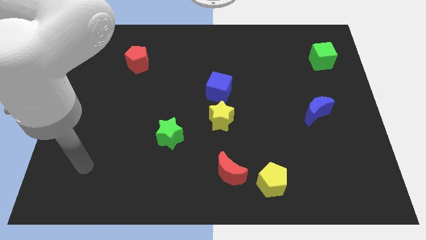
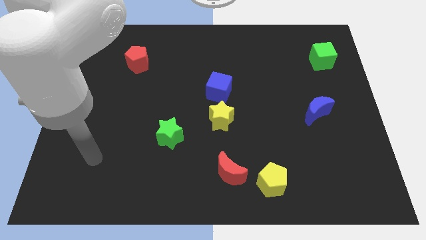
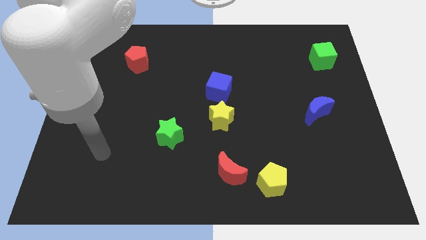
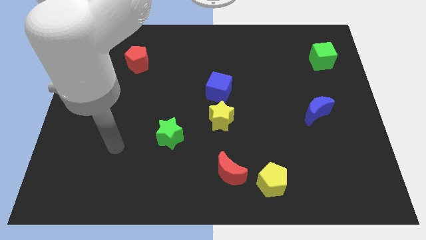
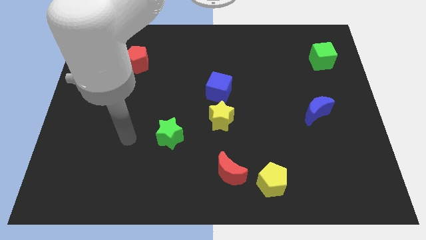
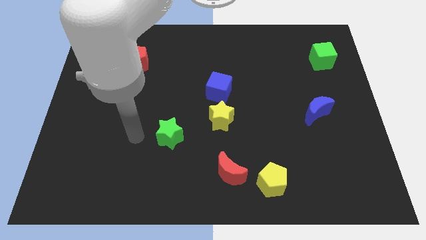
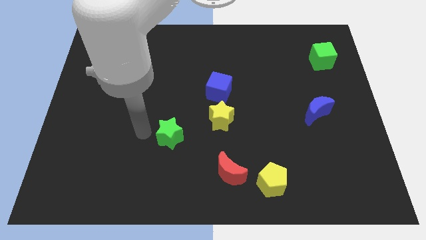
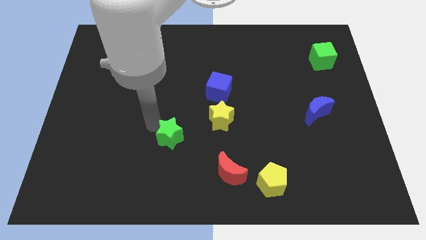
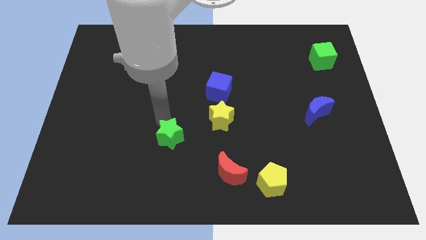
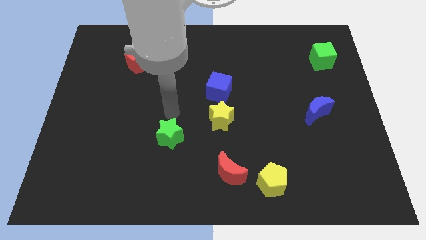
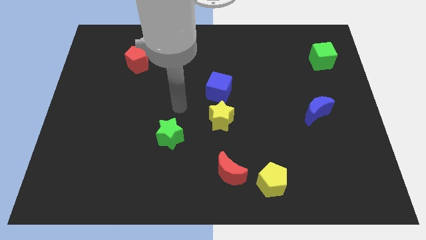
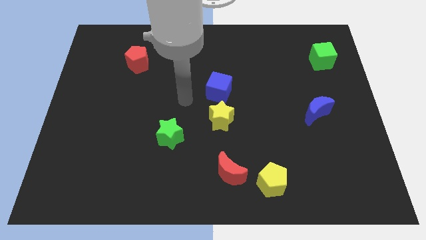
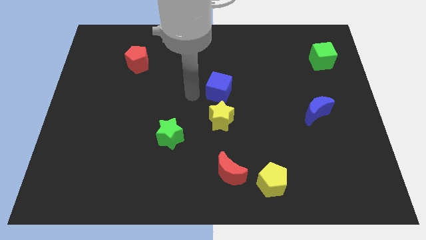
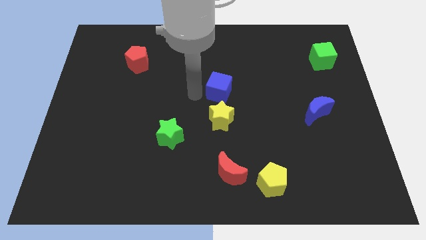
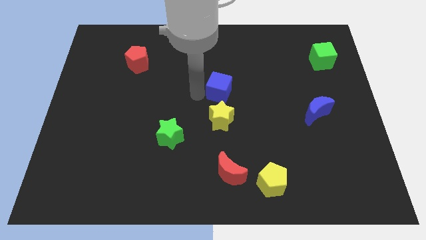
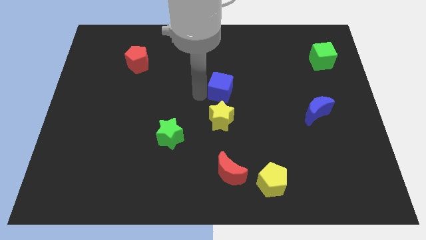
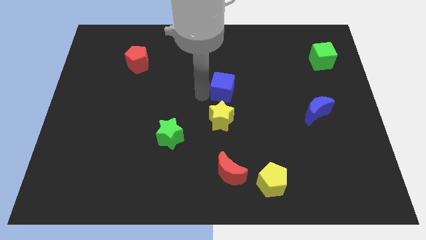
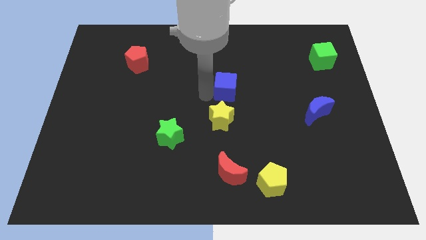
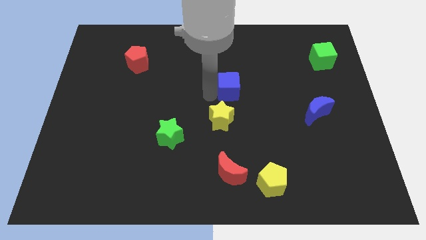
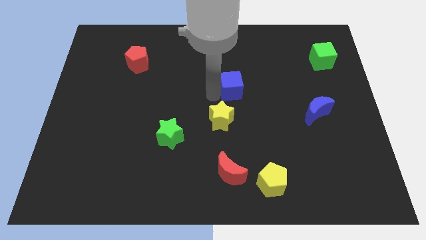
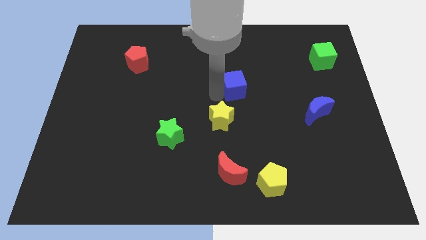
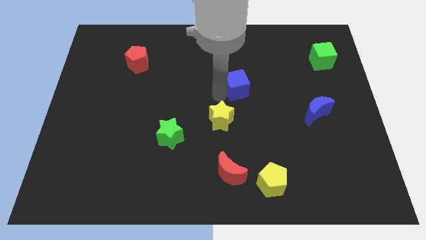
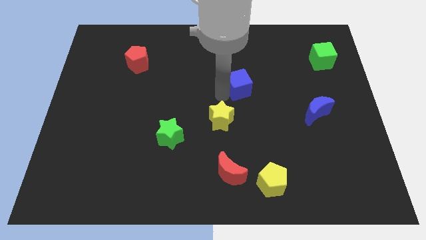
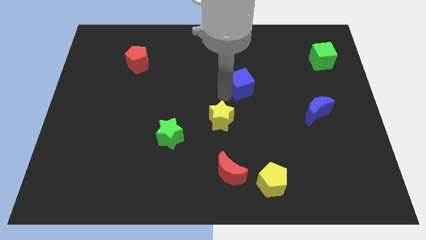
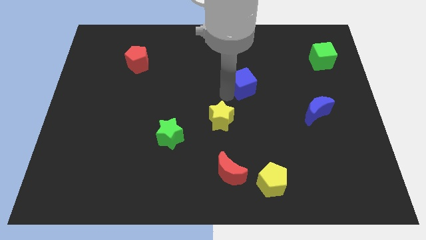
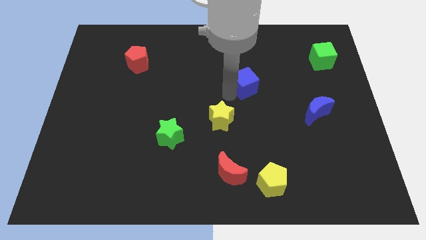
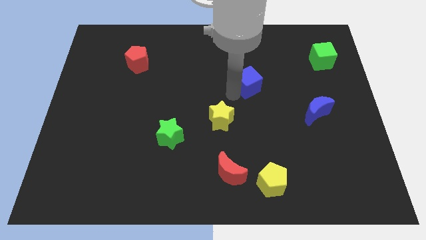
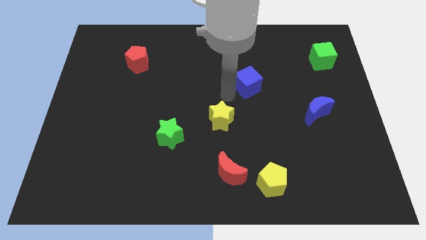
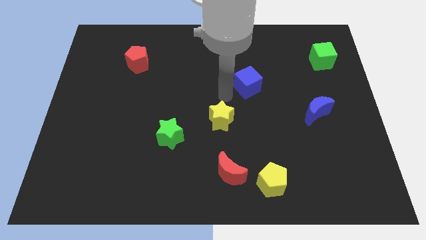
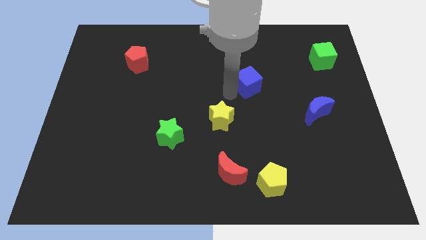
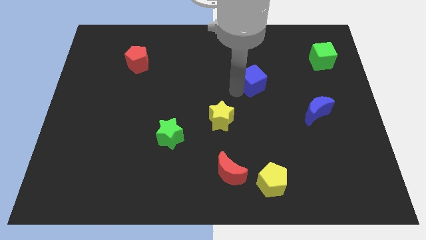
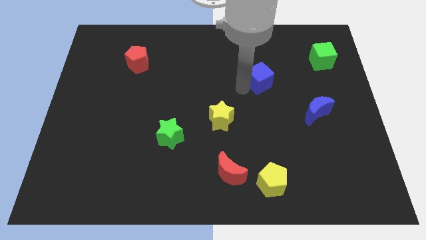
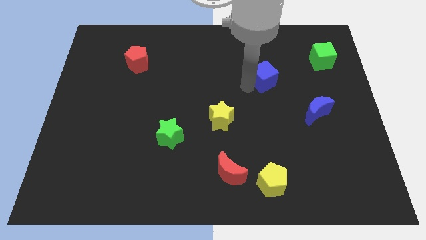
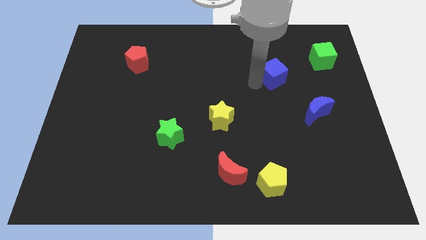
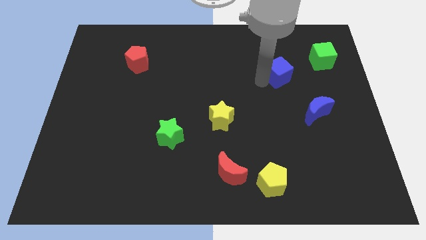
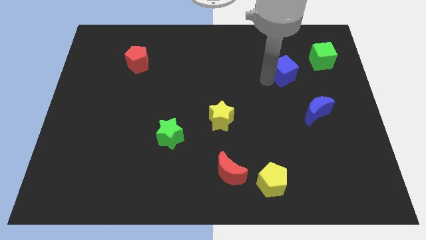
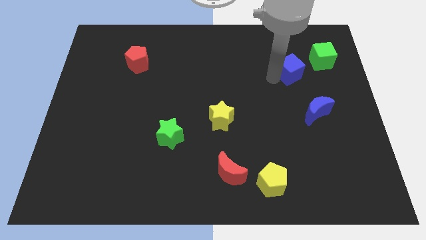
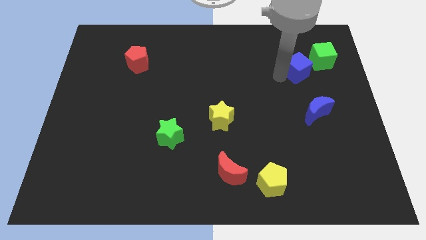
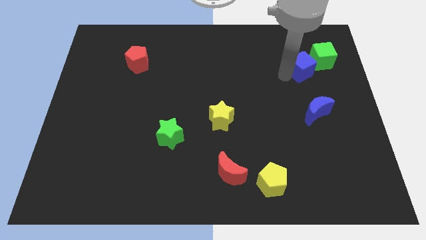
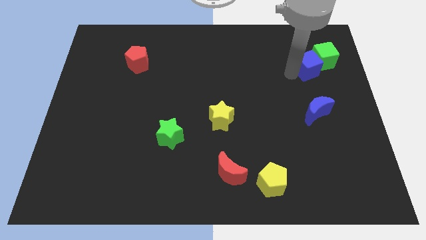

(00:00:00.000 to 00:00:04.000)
put the blue cube next to the green cube

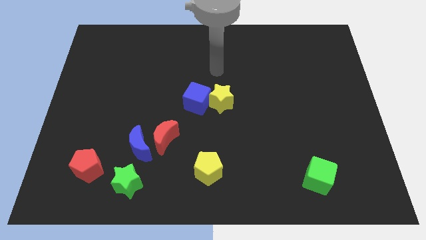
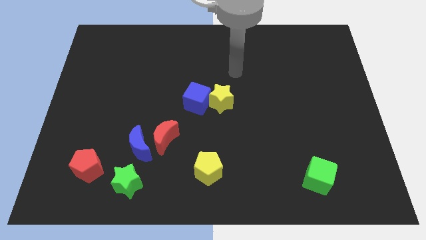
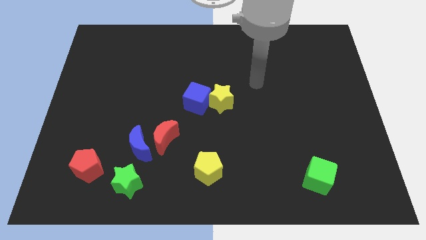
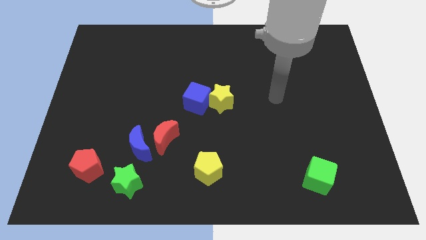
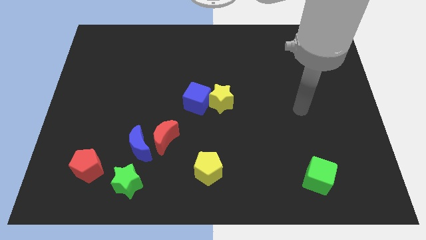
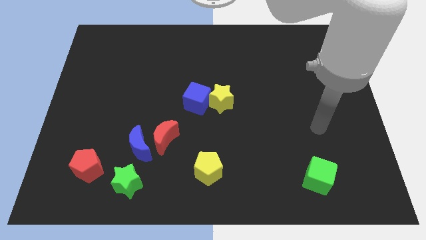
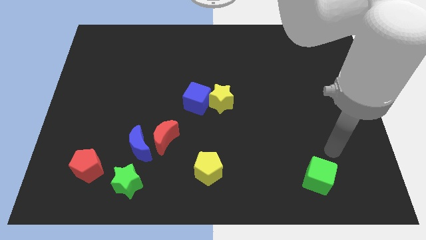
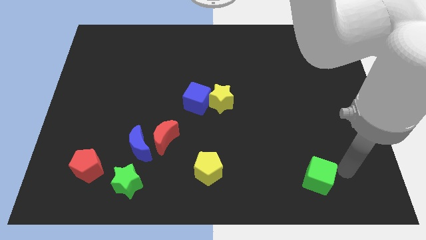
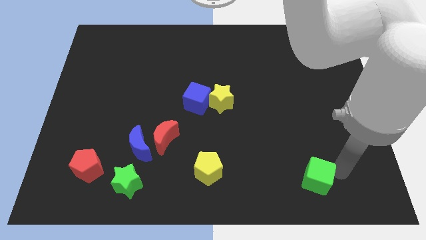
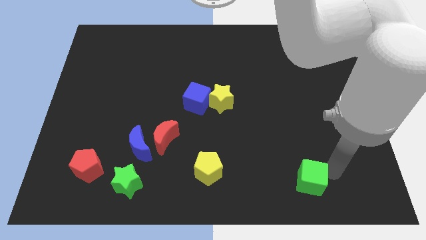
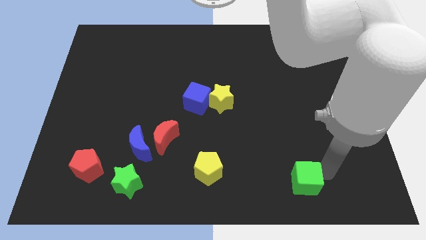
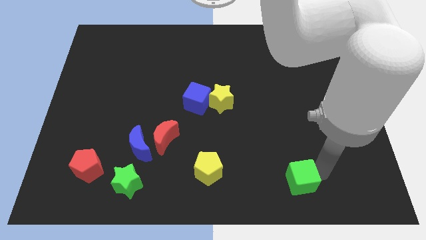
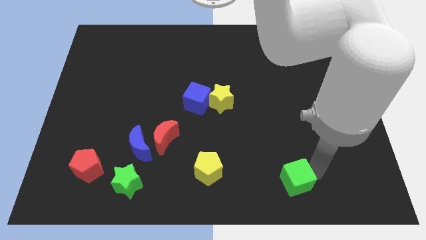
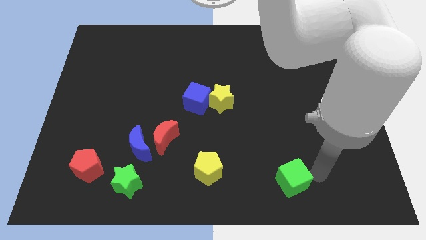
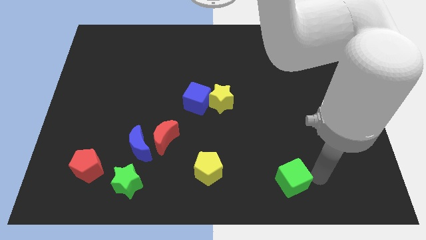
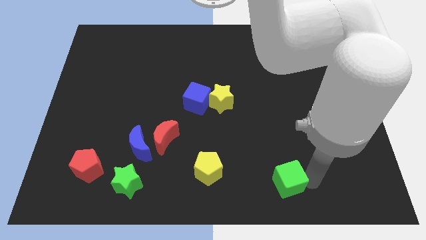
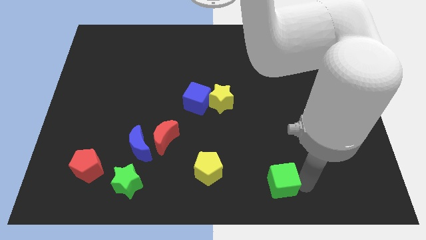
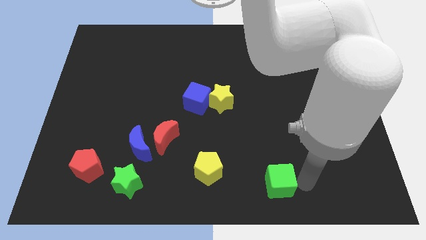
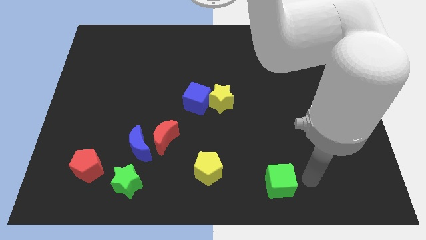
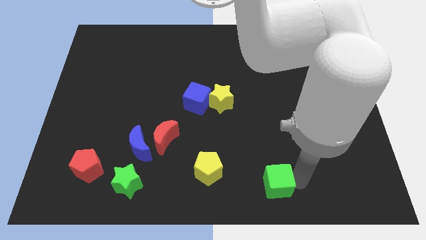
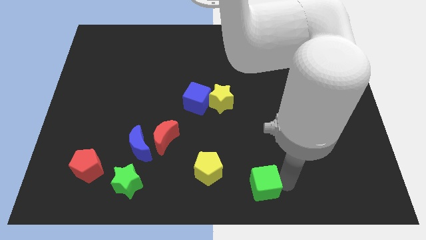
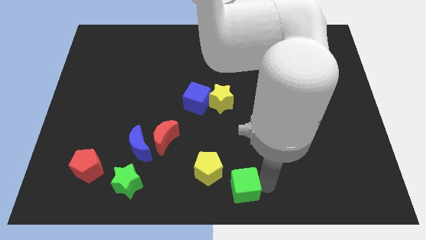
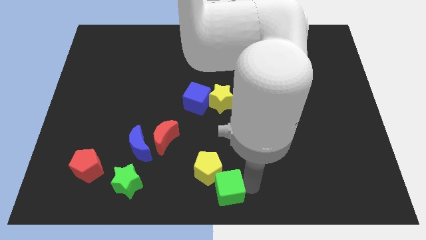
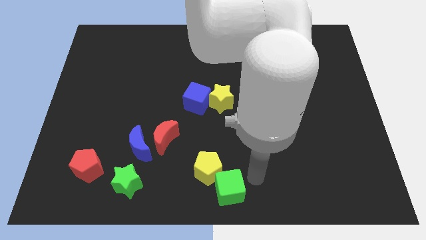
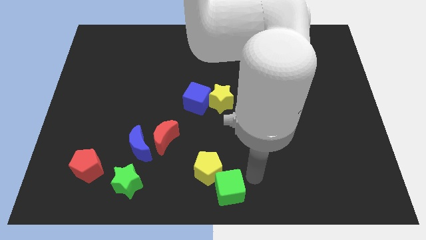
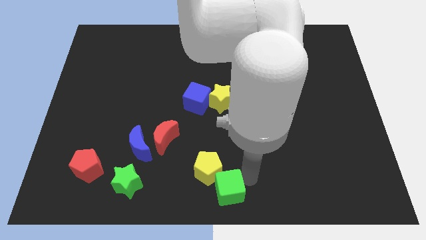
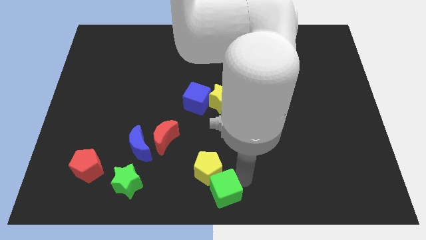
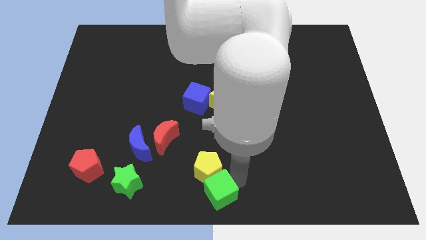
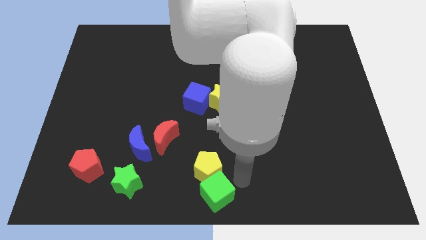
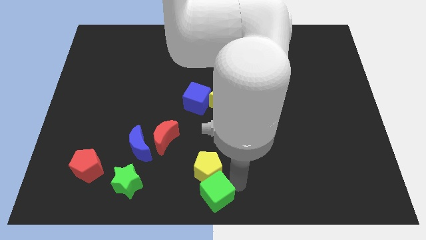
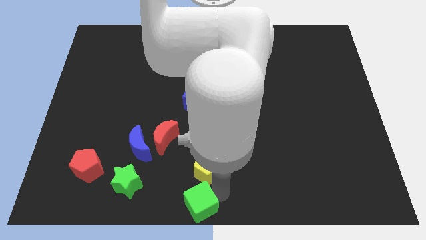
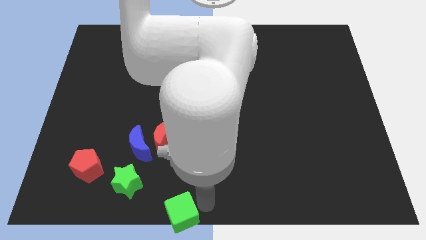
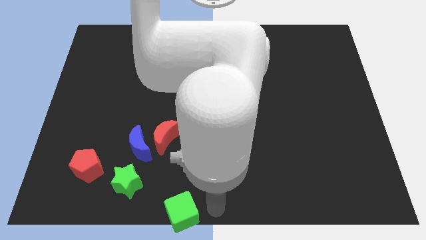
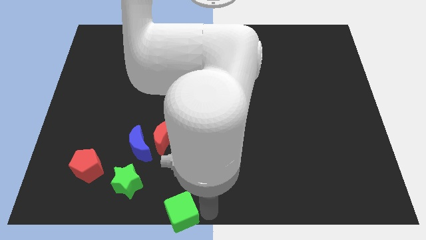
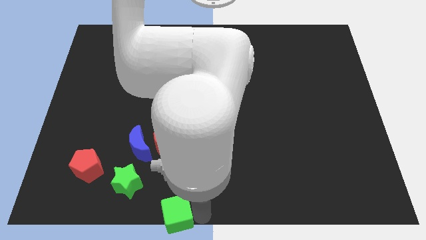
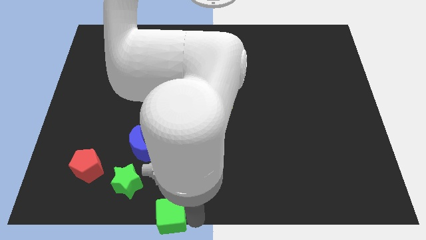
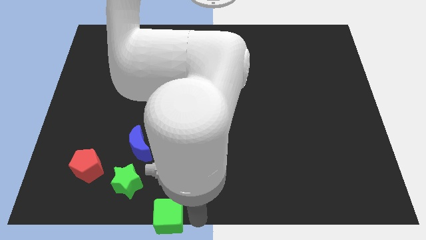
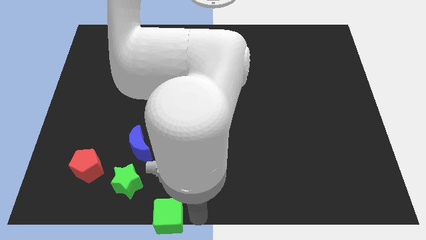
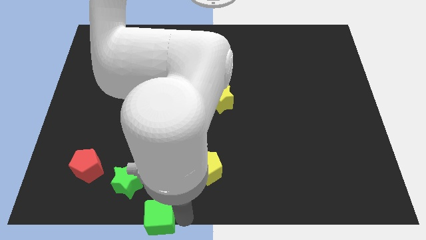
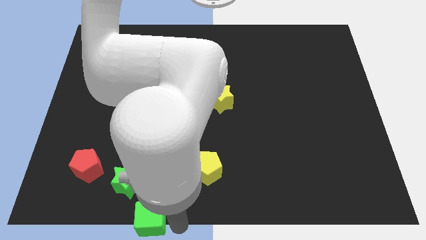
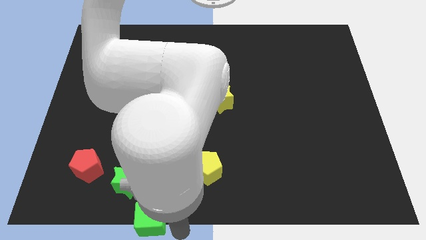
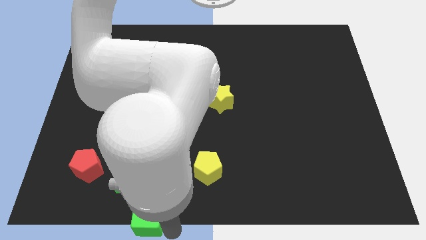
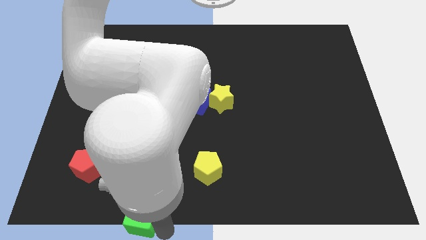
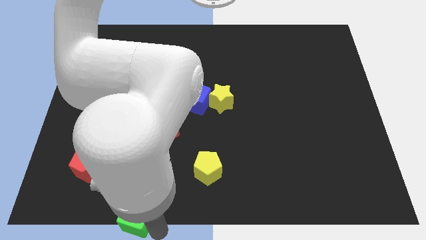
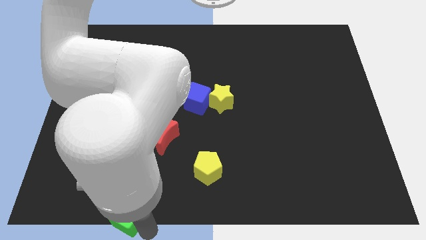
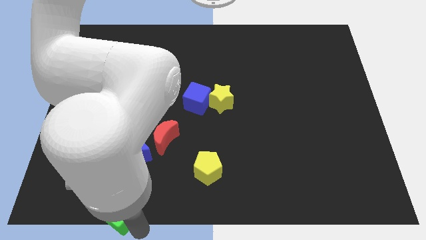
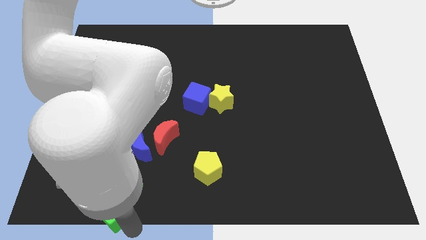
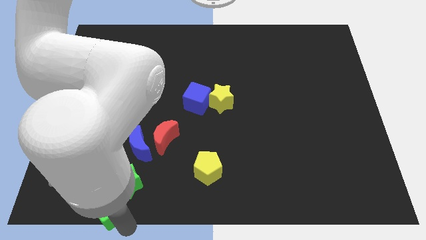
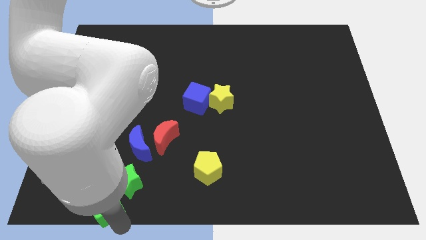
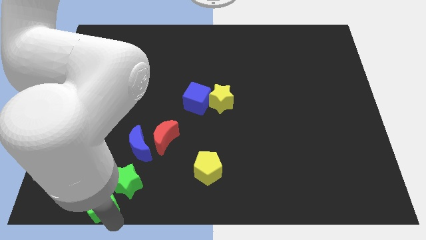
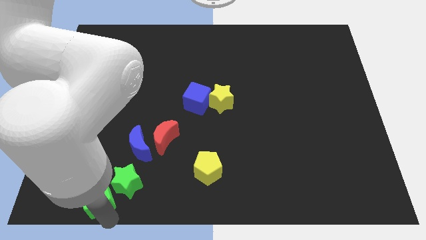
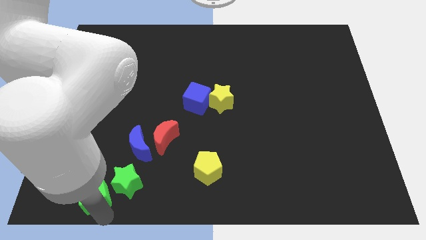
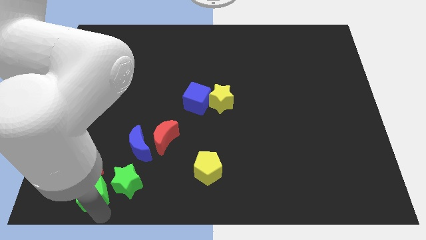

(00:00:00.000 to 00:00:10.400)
move the green cube towards the red pentagon
